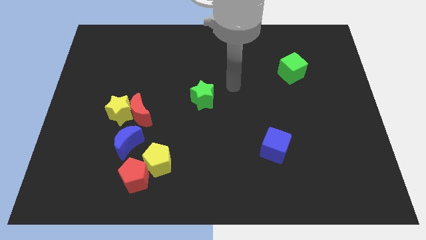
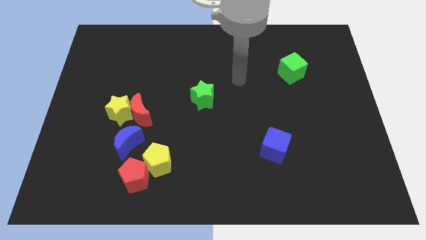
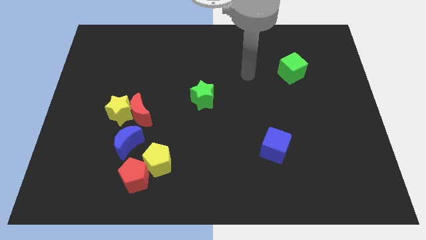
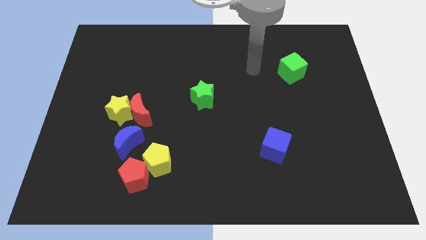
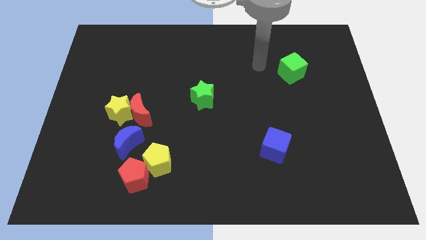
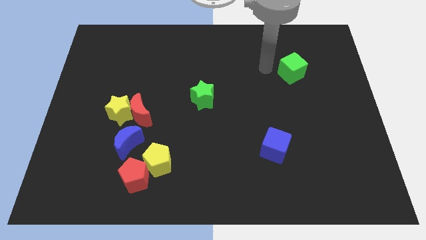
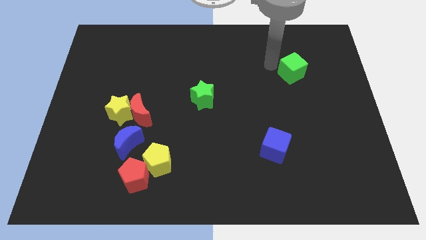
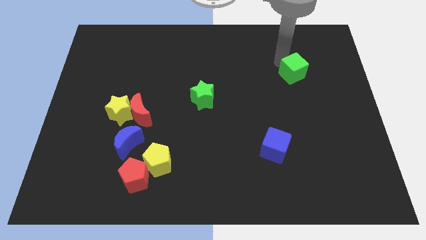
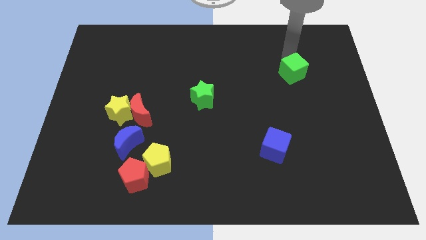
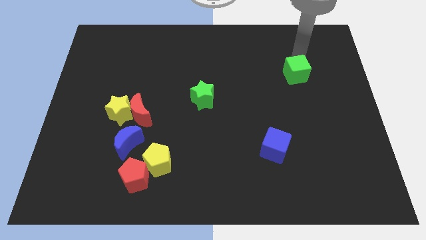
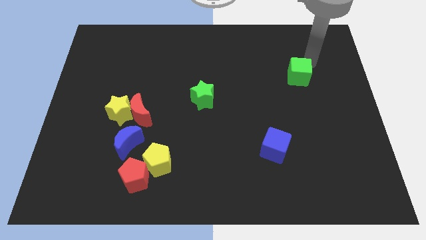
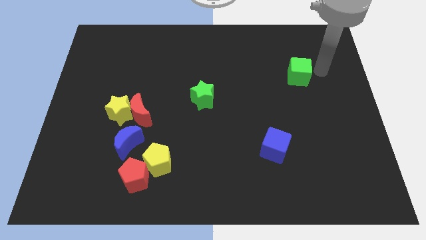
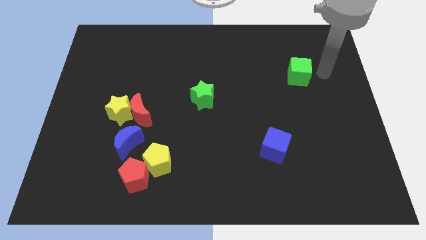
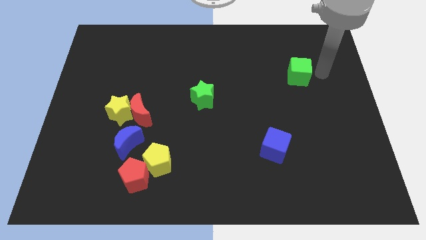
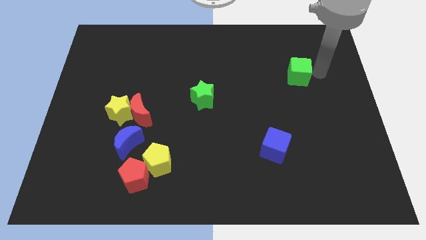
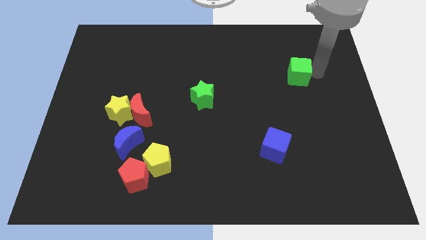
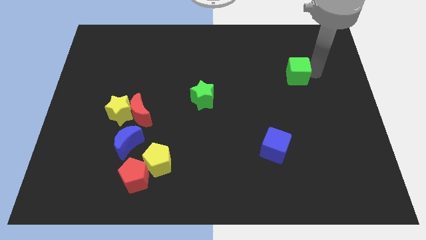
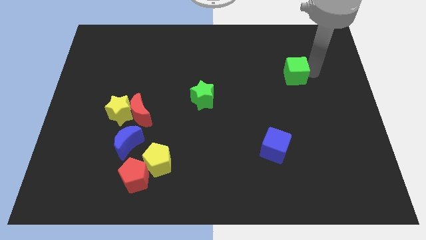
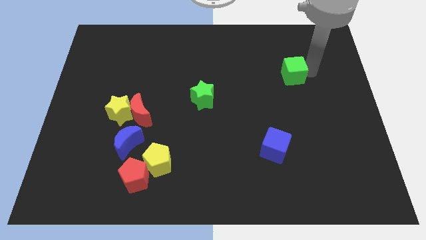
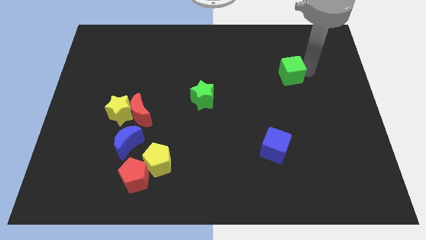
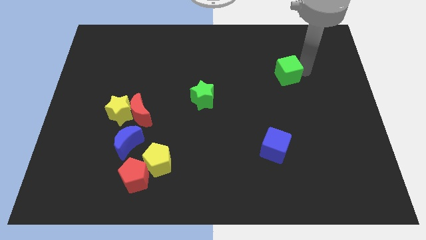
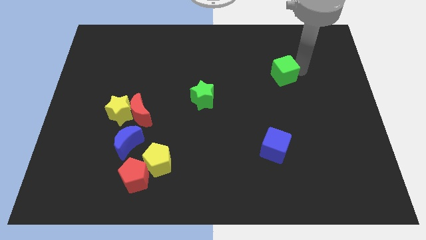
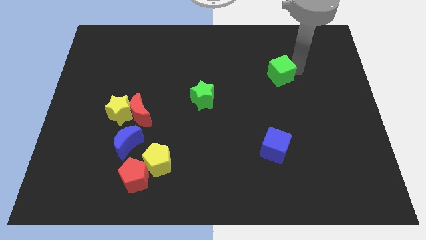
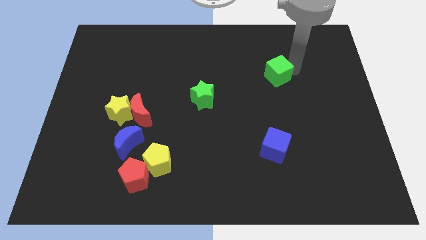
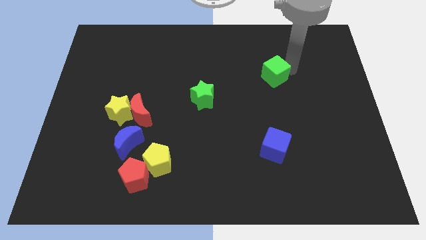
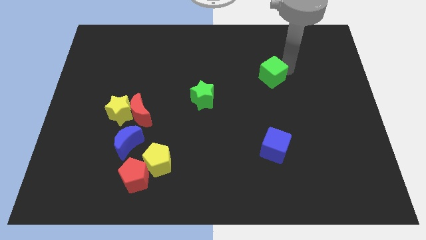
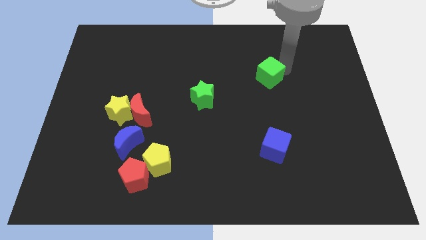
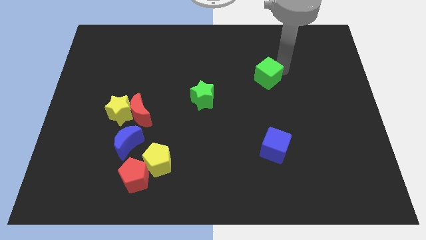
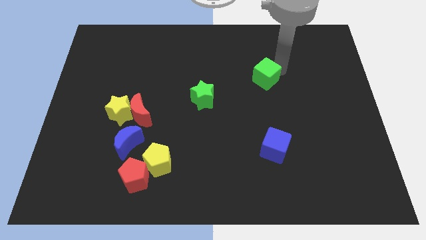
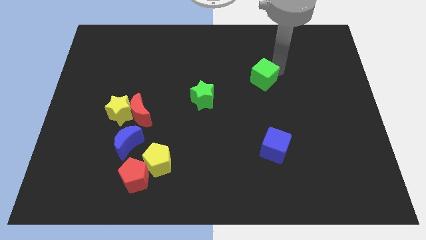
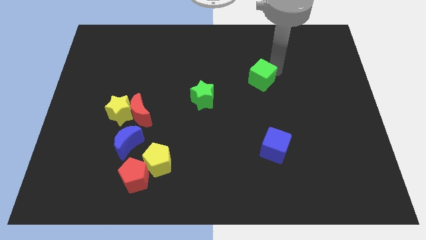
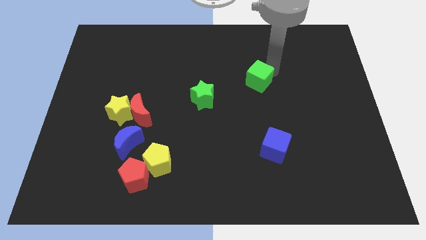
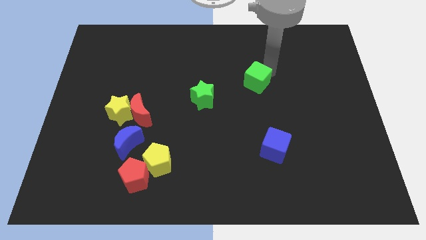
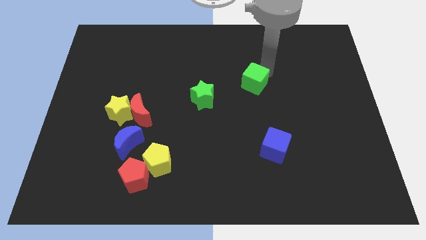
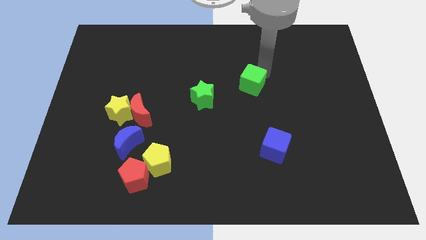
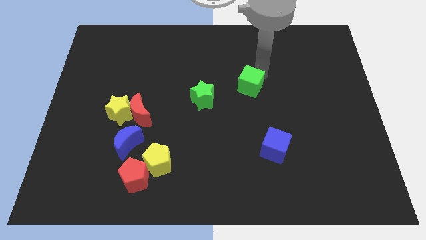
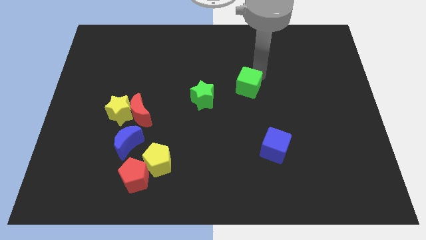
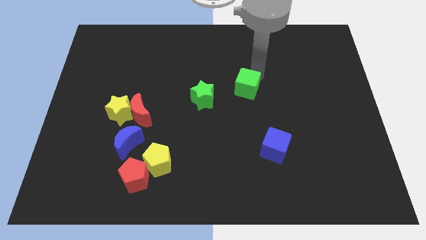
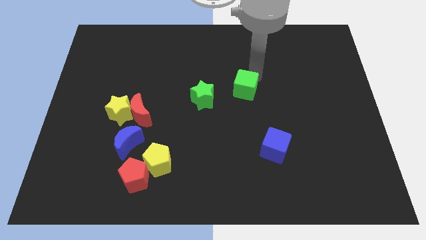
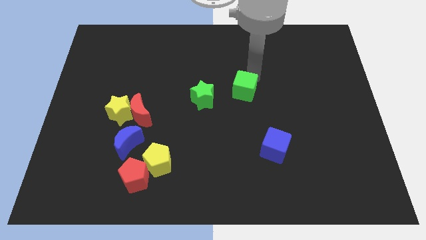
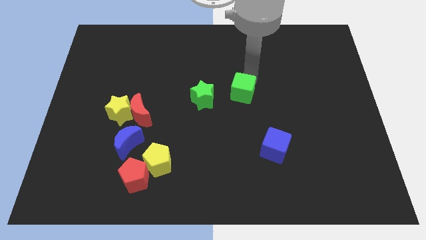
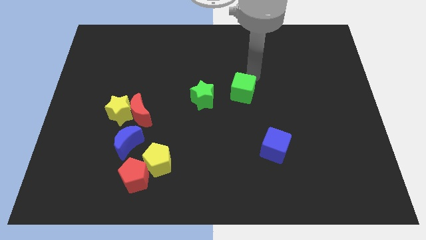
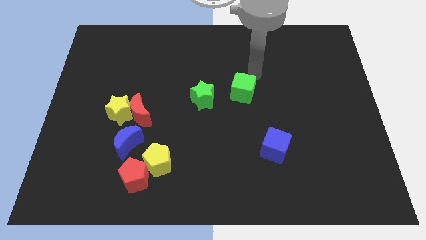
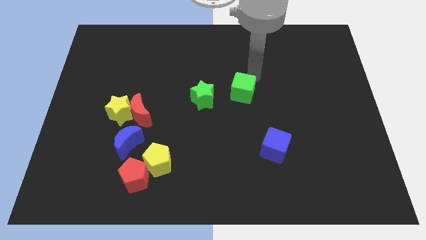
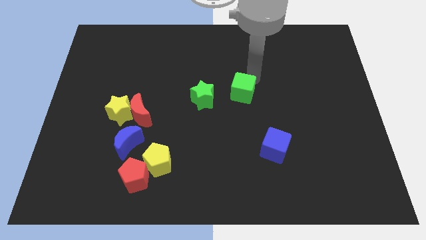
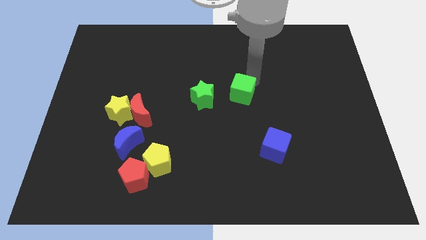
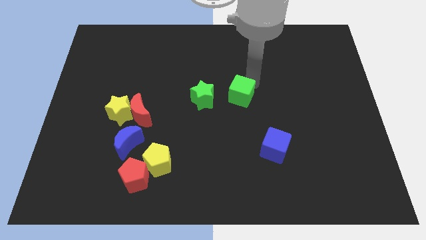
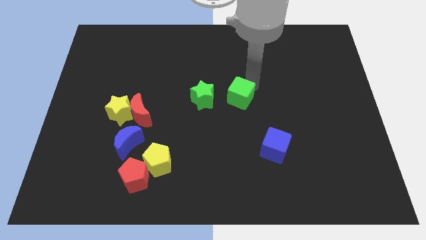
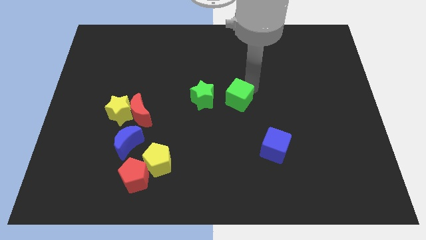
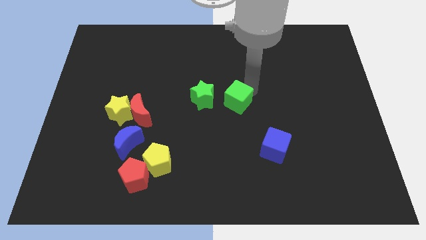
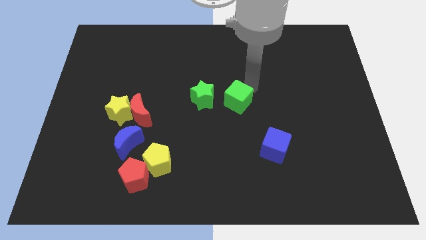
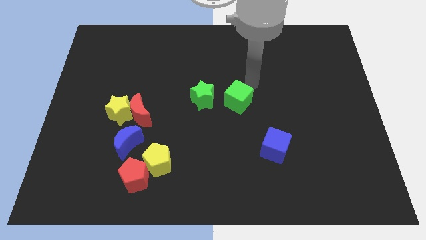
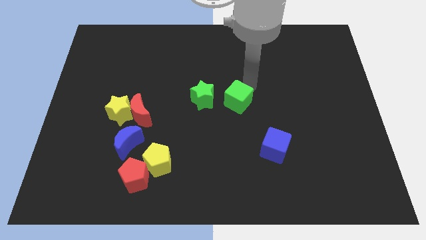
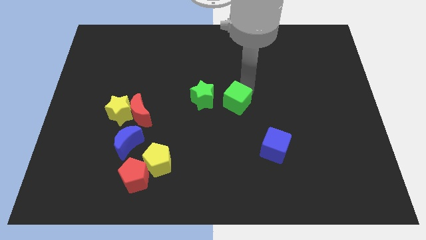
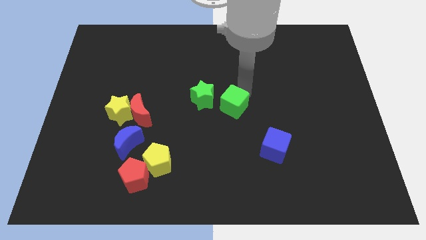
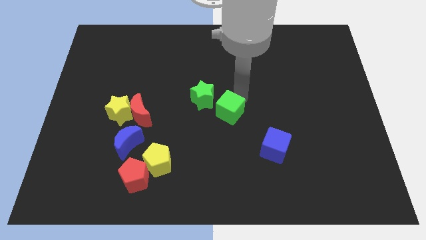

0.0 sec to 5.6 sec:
move the green cube diagonally down and left

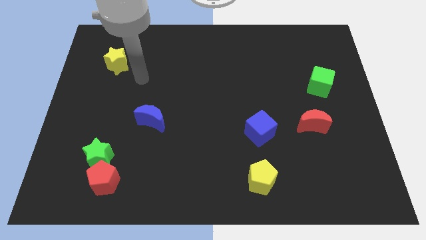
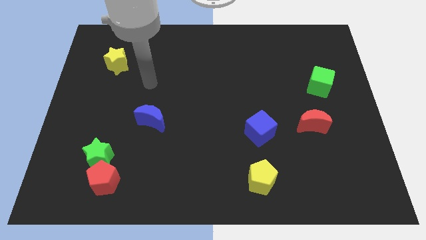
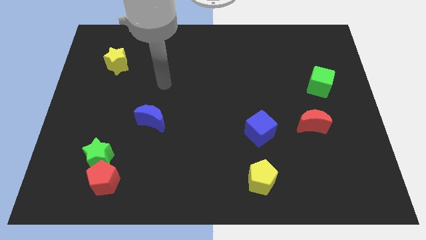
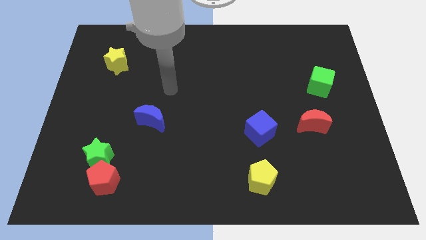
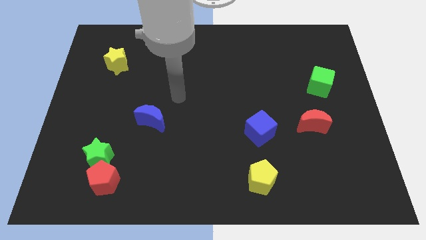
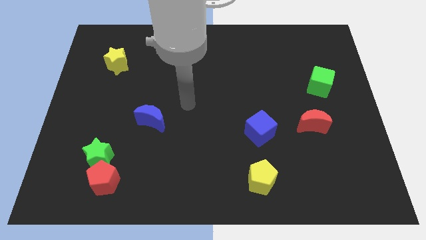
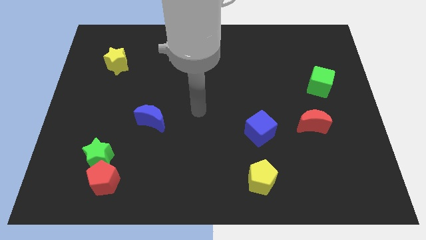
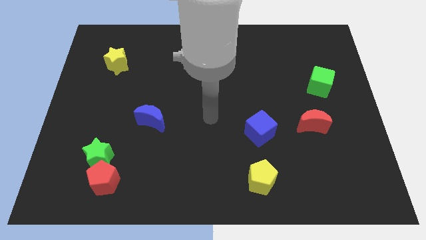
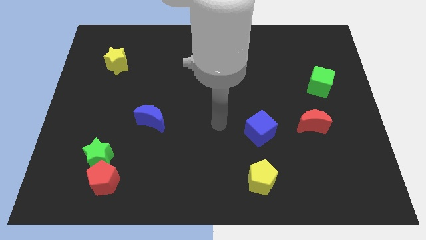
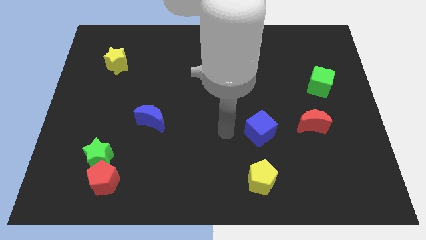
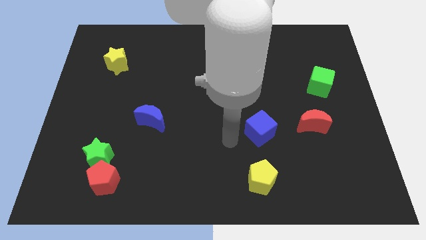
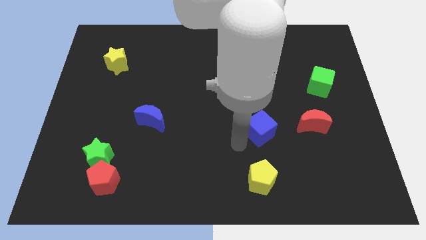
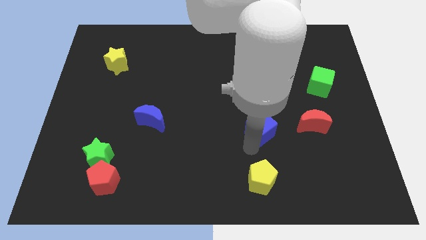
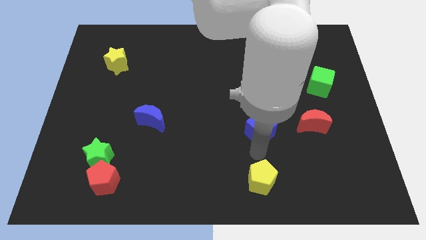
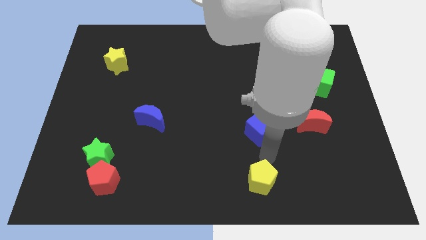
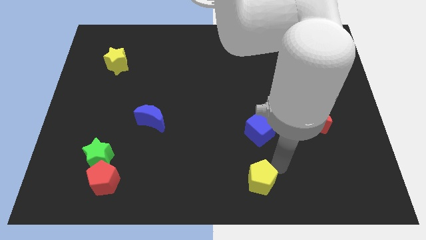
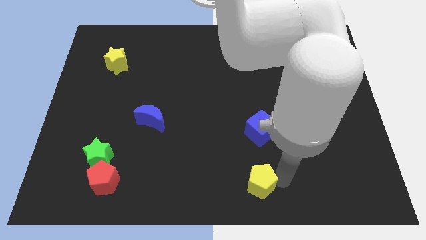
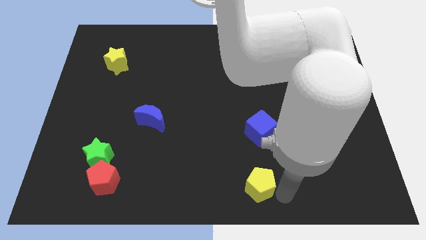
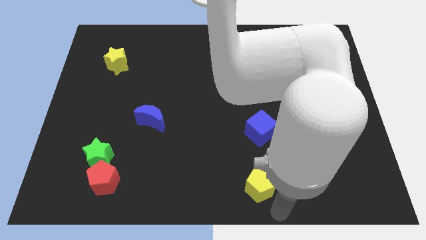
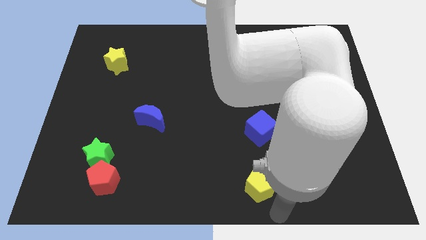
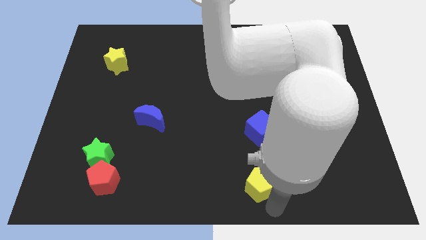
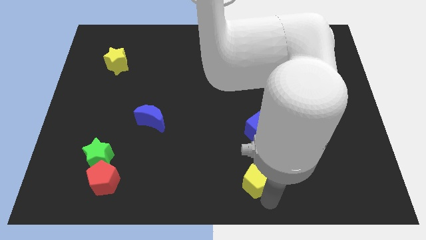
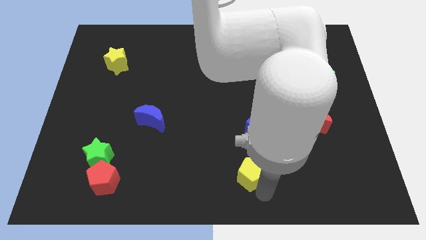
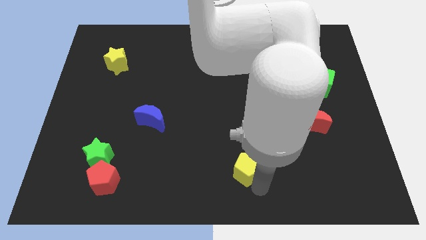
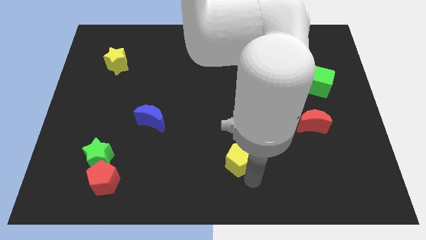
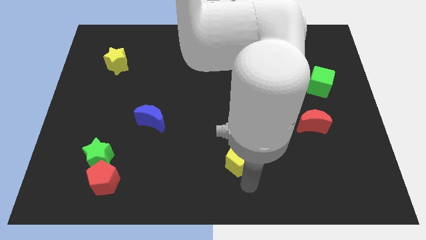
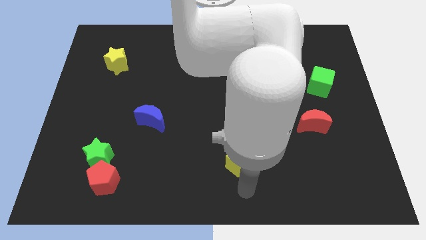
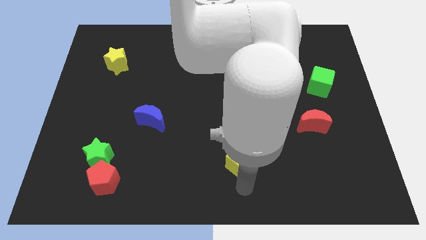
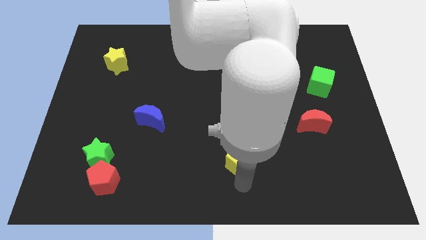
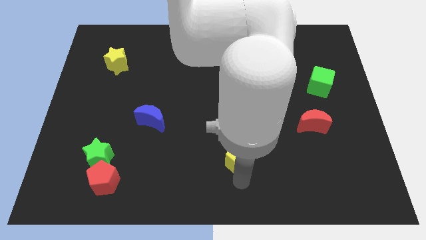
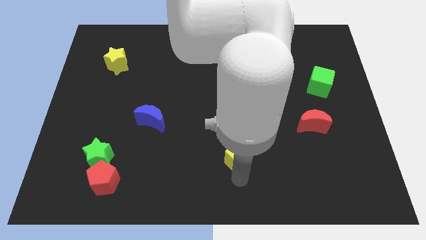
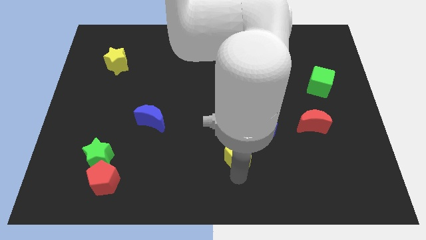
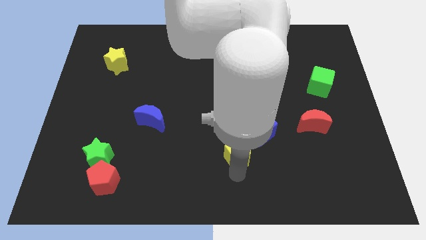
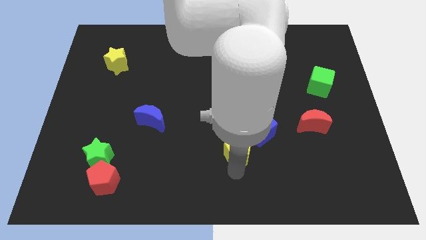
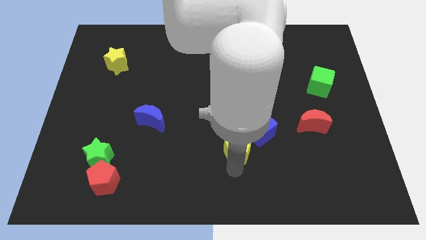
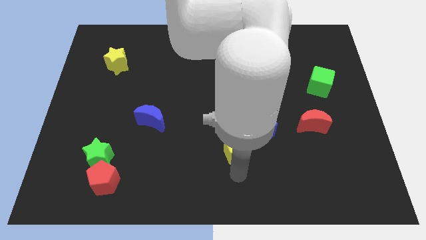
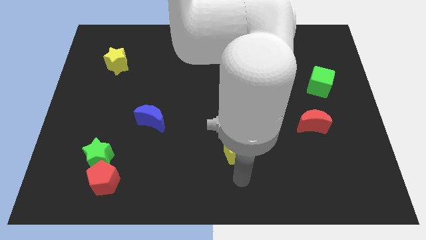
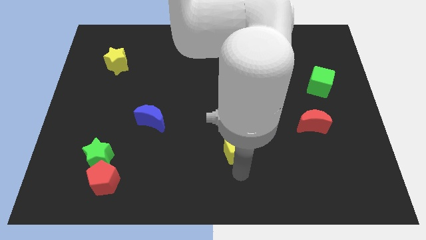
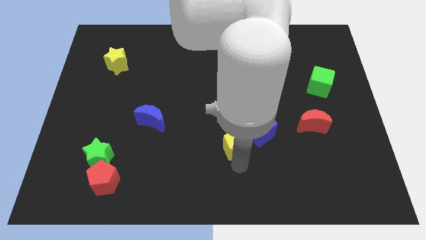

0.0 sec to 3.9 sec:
move the yellow pentagon a little bit upwards
